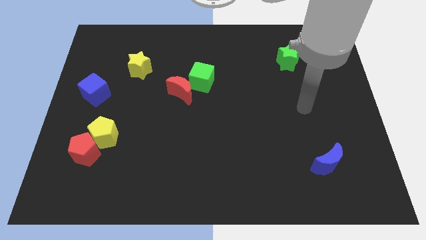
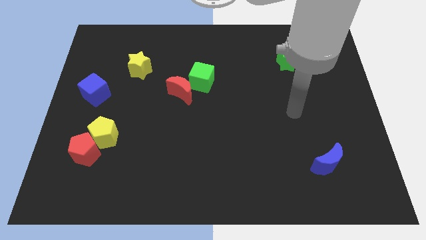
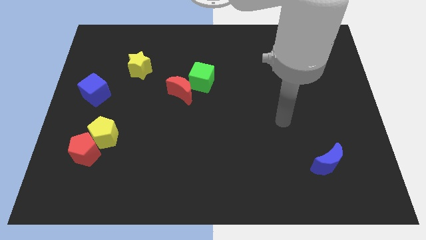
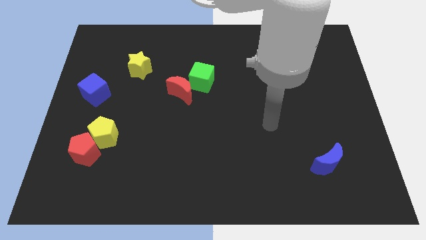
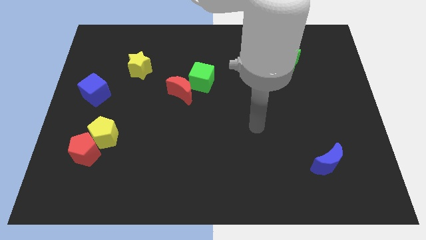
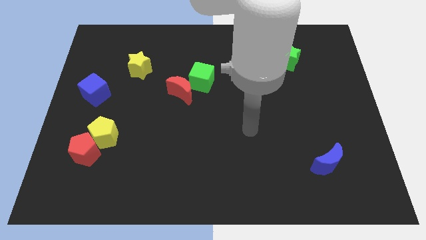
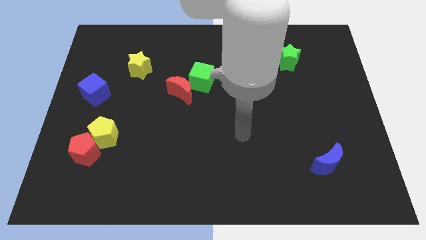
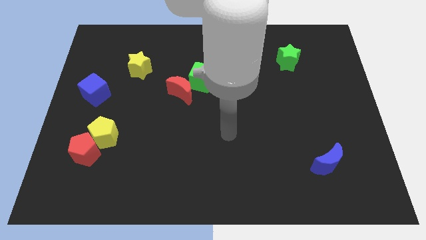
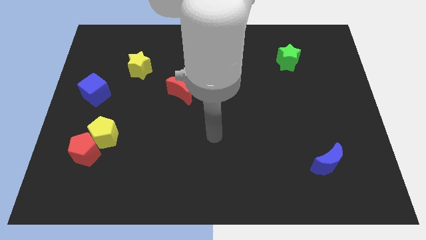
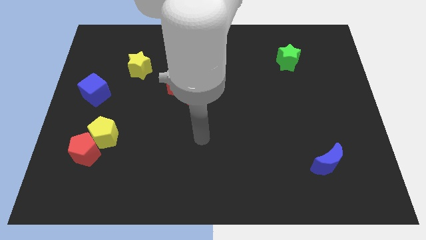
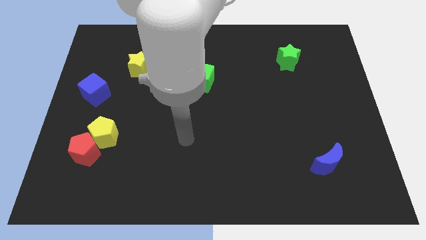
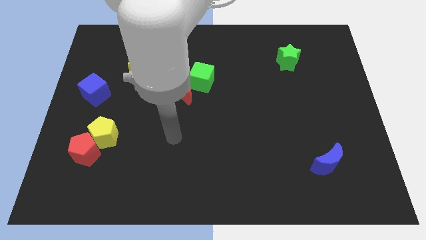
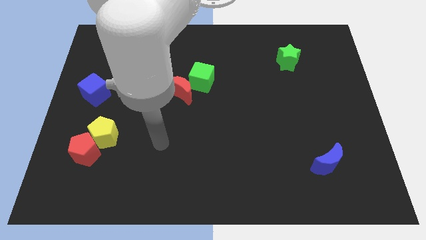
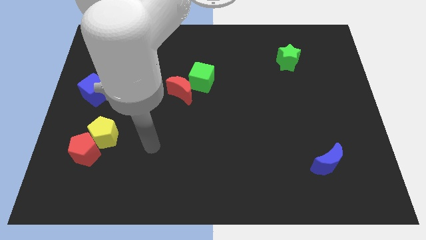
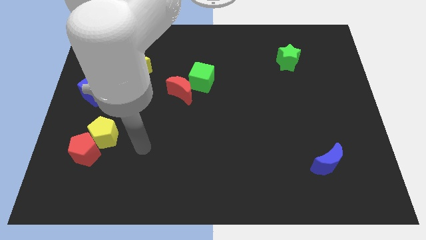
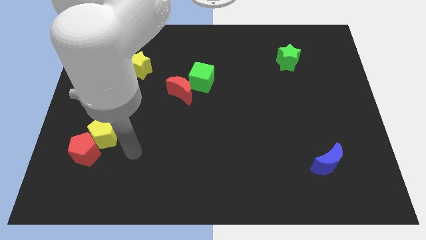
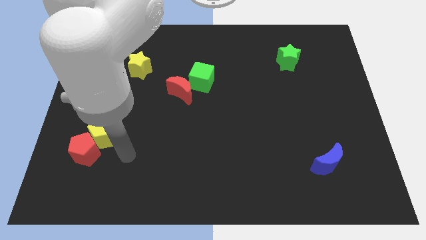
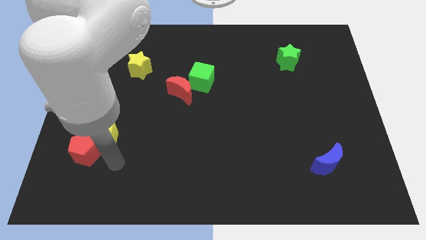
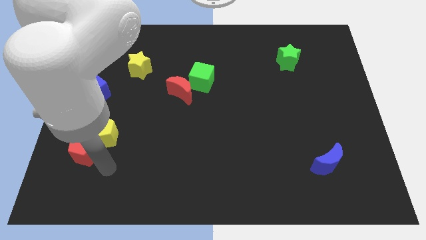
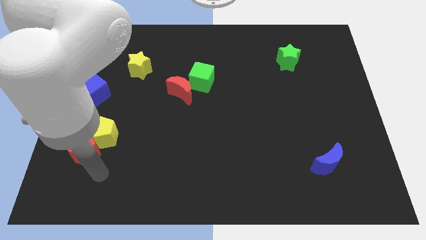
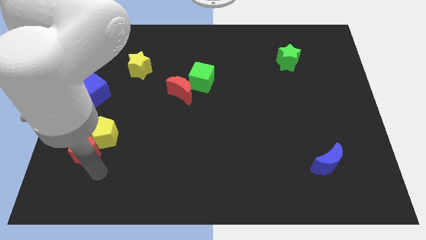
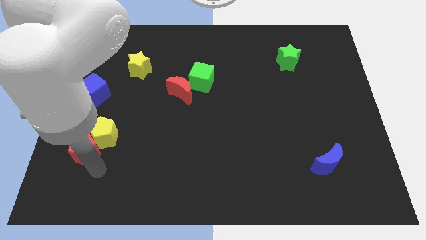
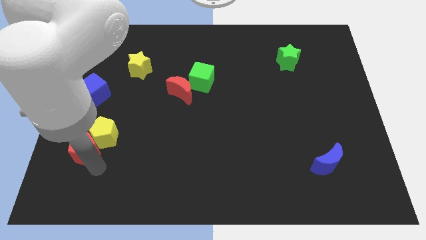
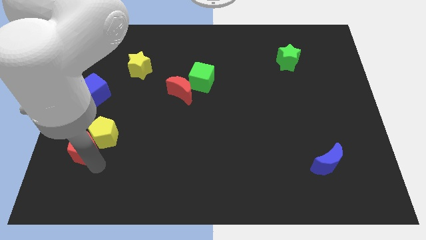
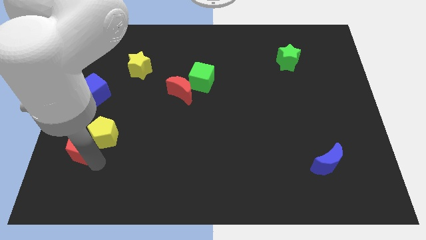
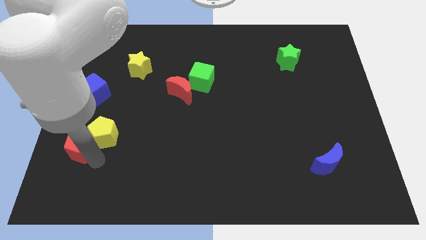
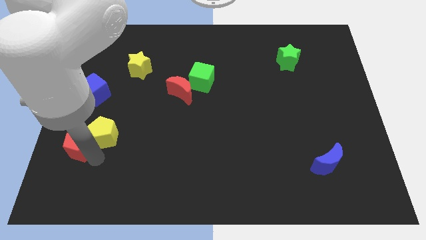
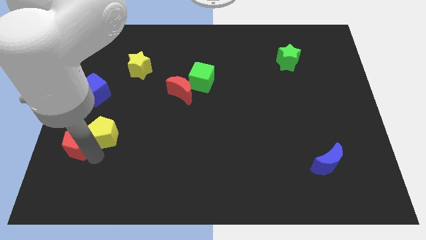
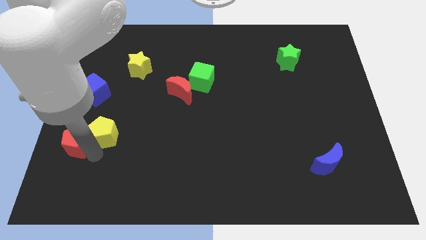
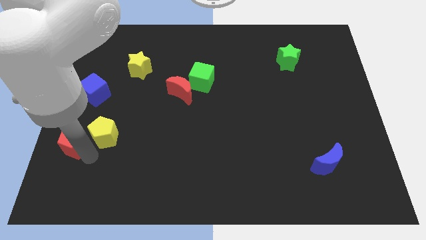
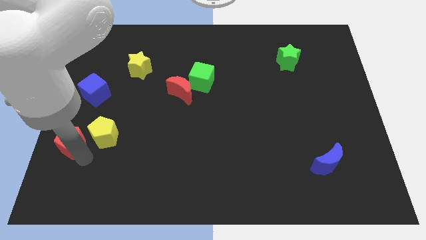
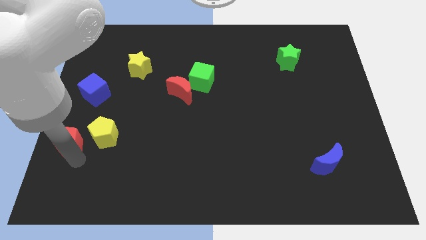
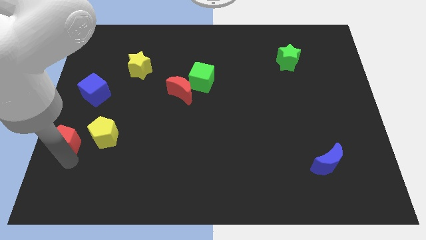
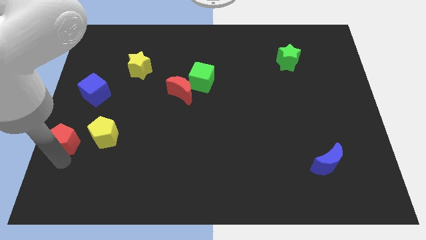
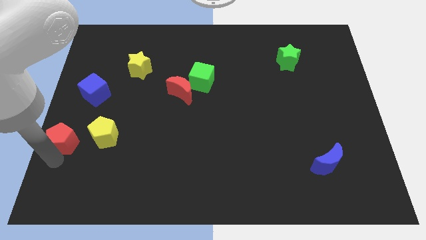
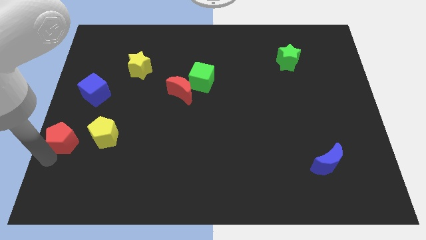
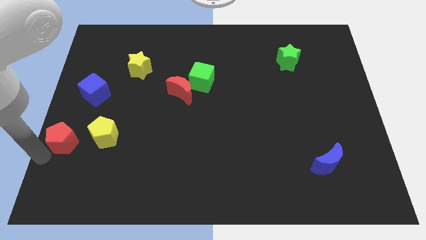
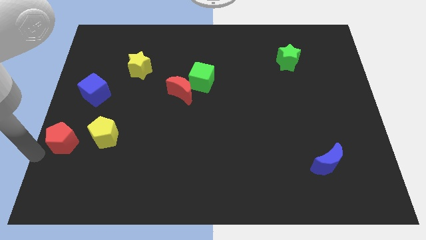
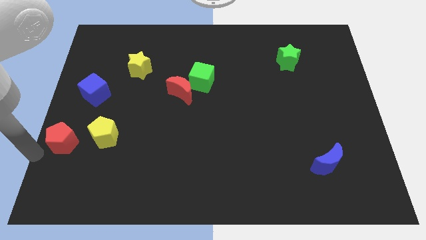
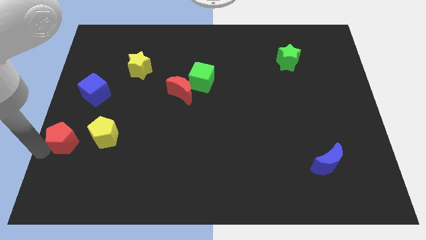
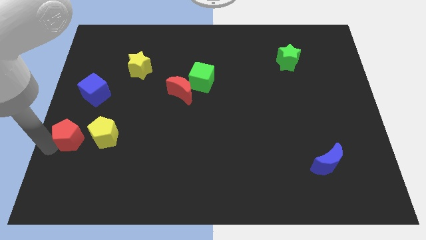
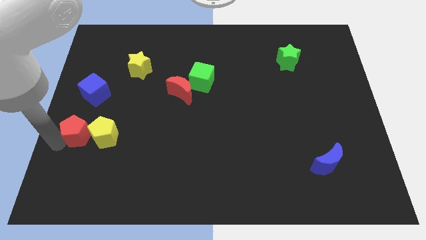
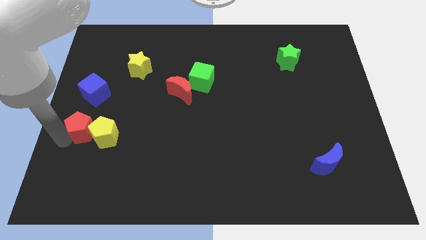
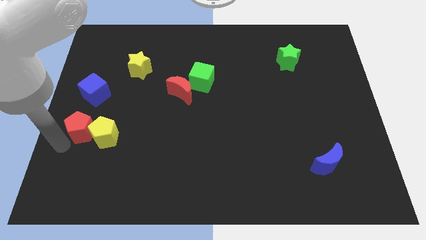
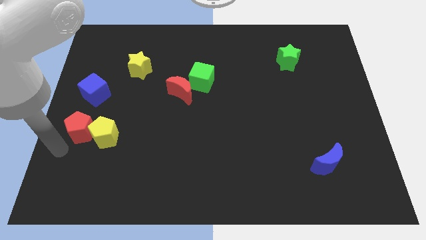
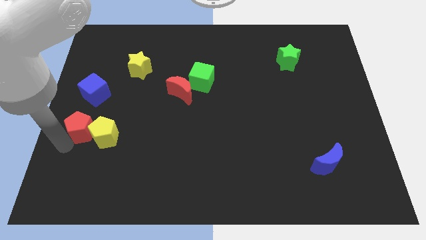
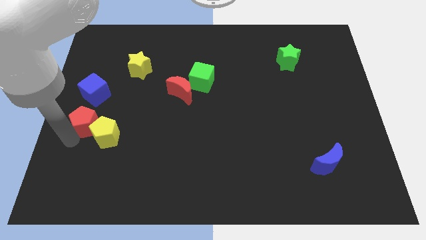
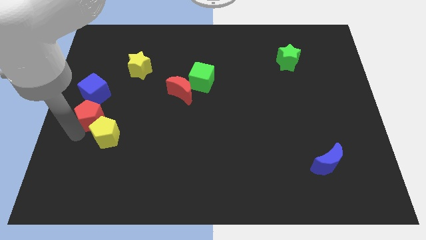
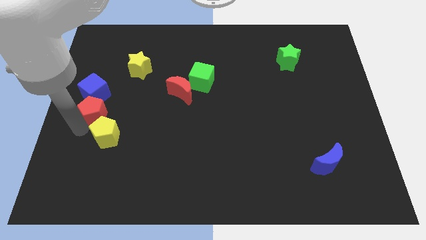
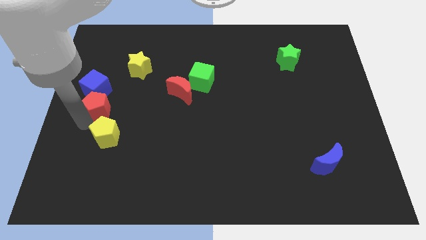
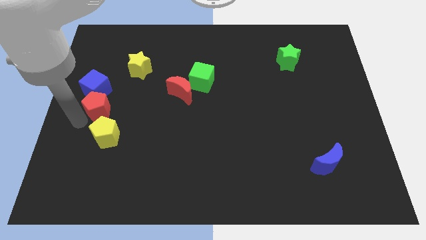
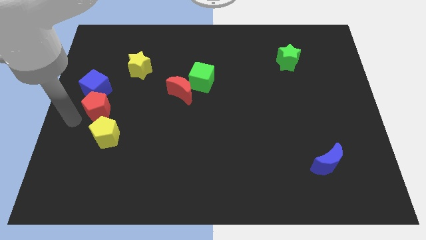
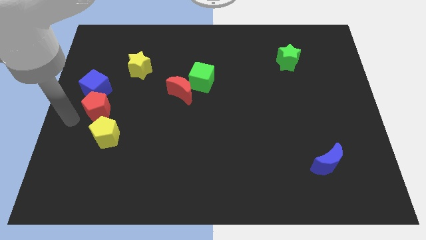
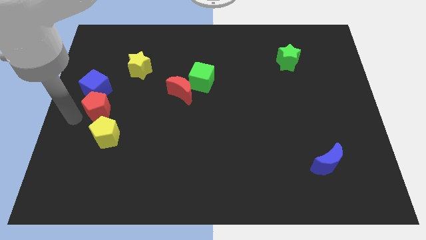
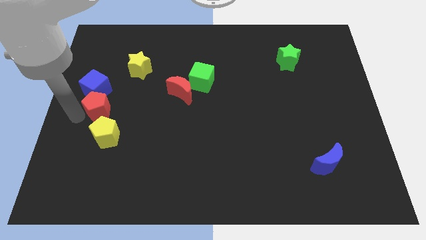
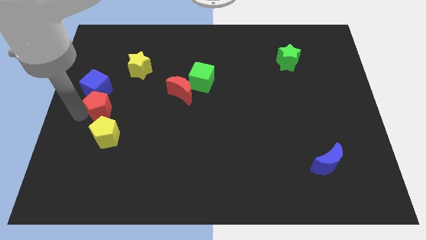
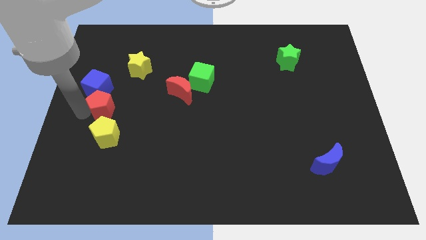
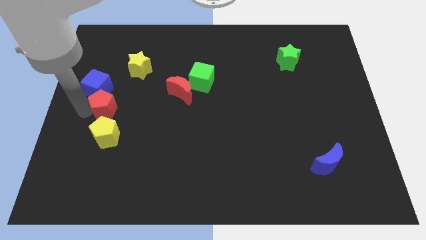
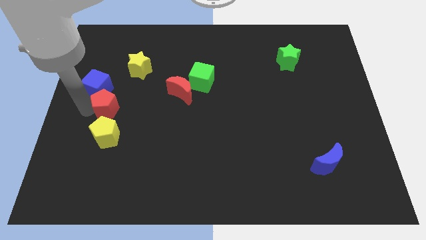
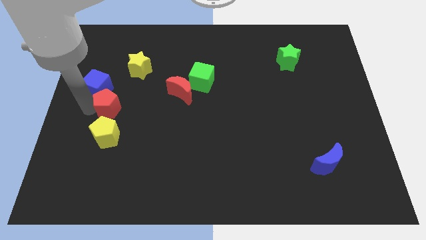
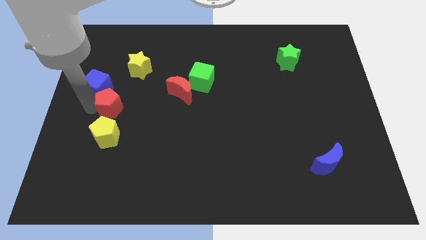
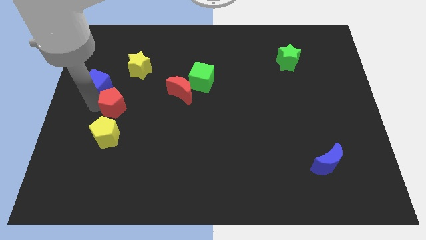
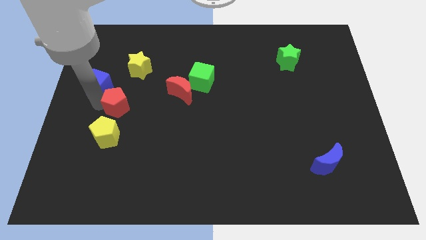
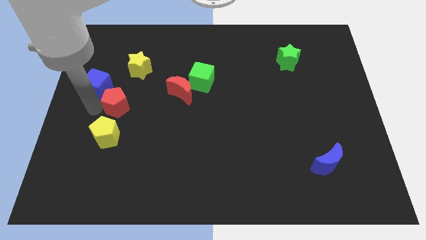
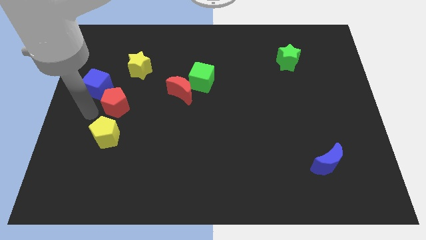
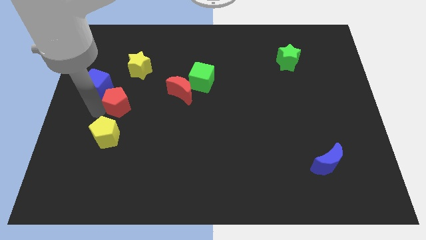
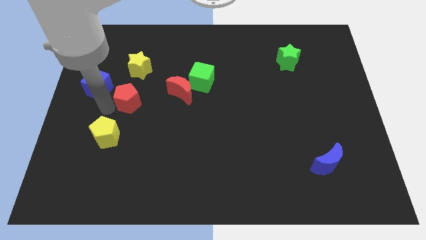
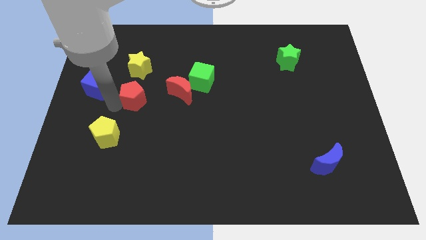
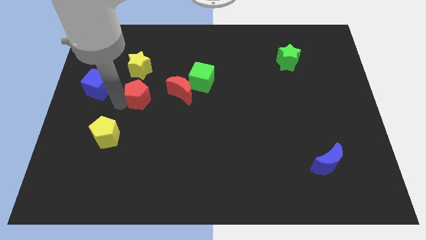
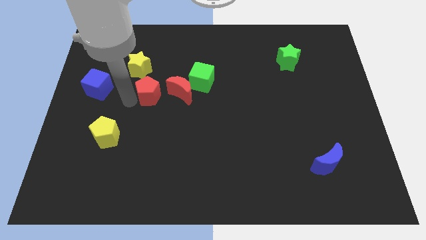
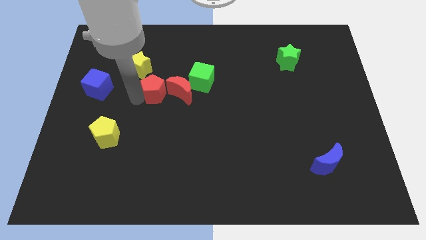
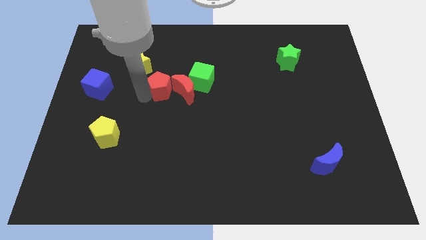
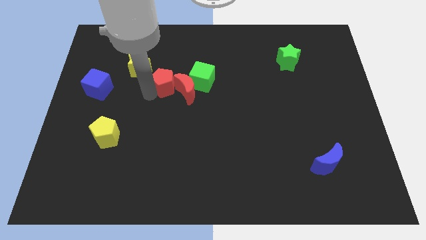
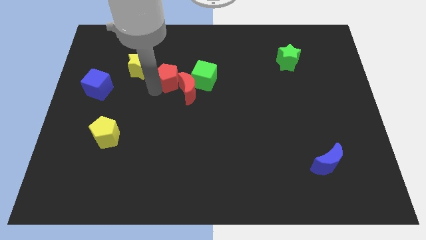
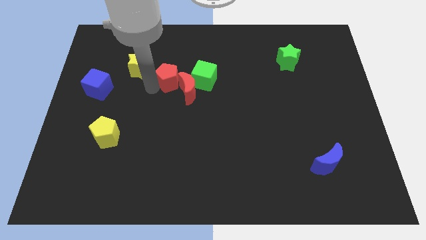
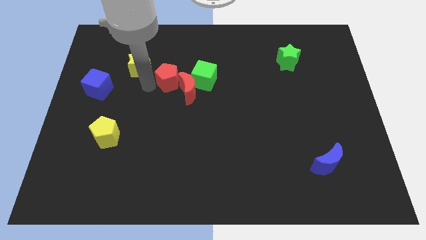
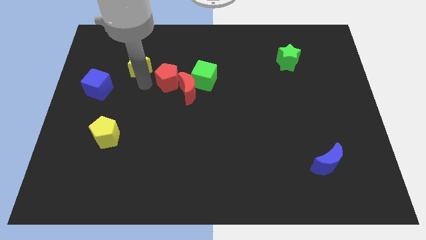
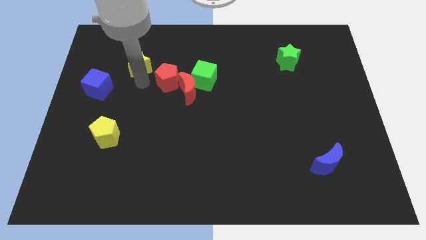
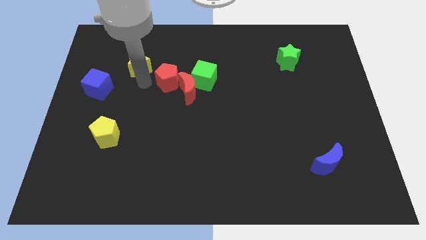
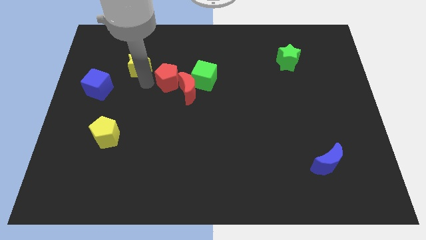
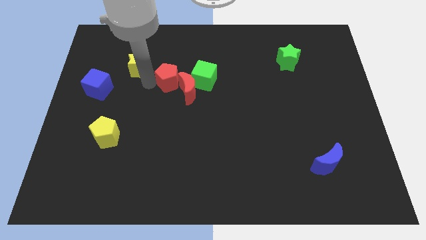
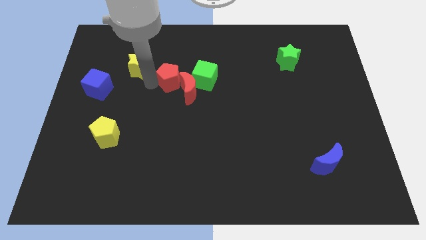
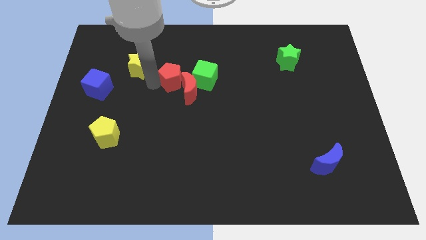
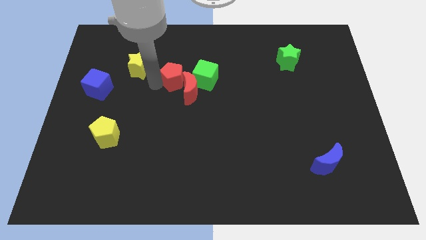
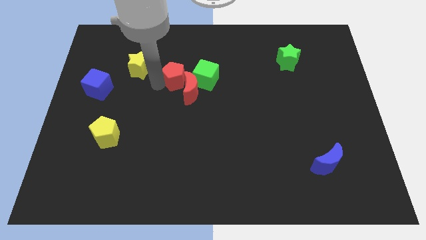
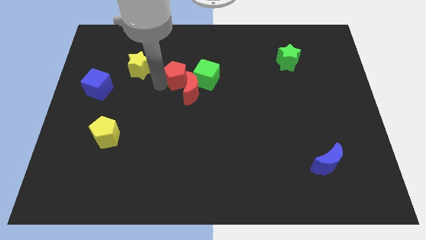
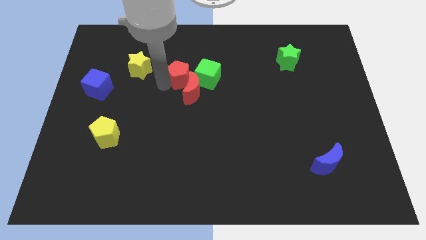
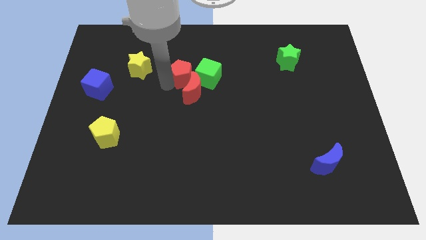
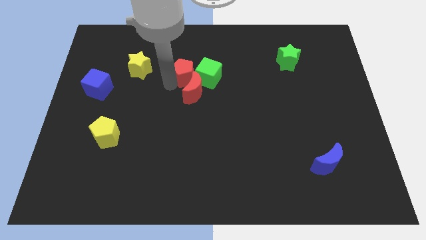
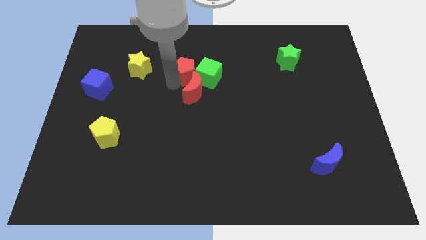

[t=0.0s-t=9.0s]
push the red pentagon to the green cube
